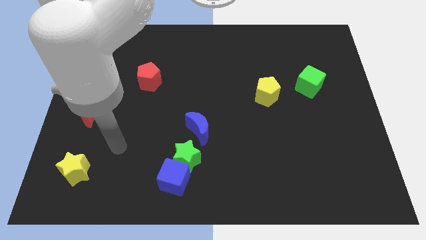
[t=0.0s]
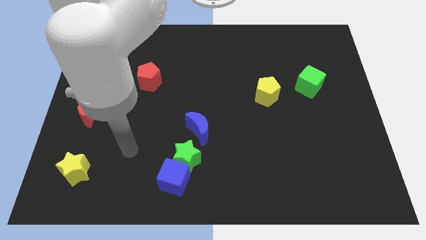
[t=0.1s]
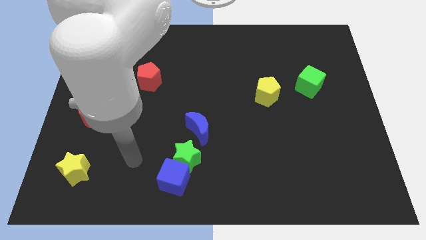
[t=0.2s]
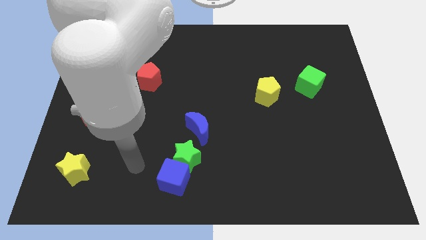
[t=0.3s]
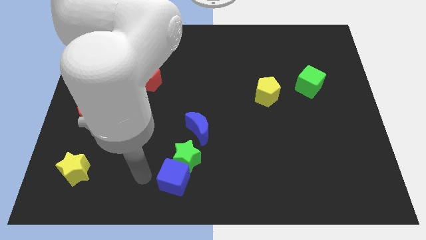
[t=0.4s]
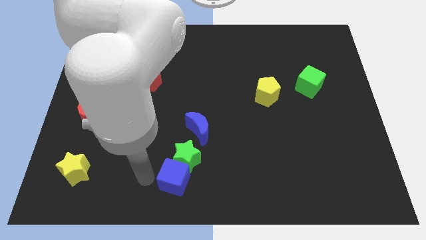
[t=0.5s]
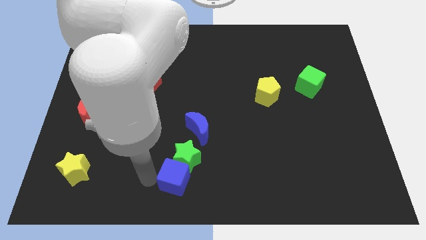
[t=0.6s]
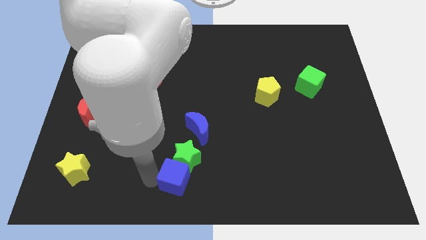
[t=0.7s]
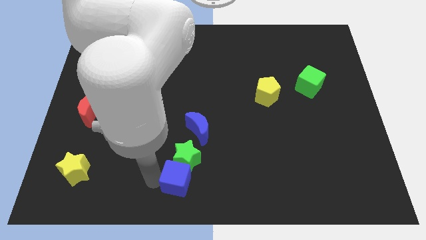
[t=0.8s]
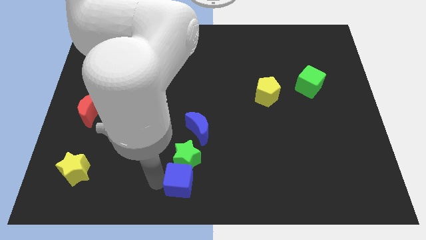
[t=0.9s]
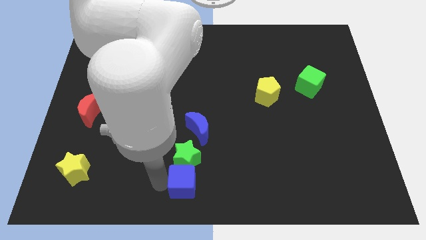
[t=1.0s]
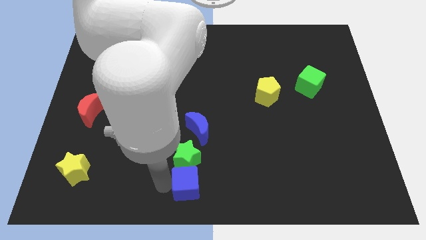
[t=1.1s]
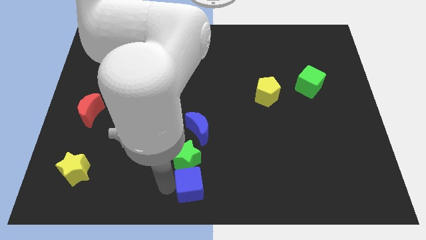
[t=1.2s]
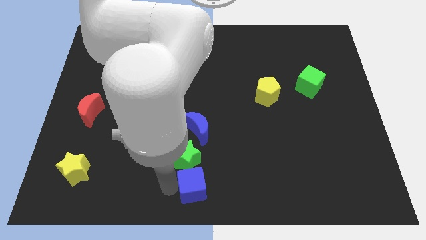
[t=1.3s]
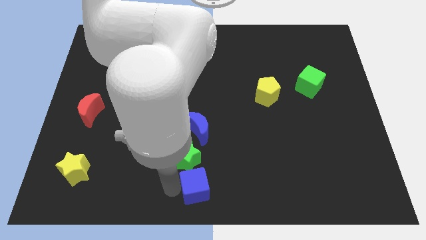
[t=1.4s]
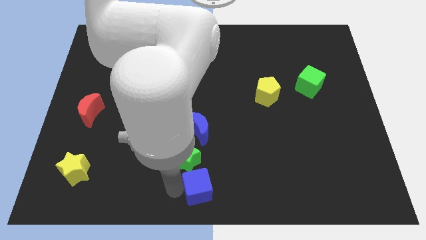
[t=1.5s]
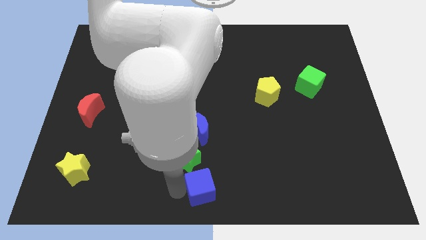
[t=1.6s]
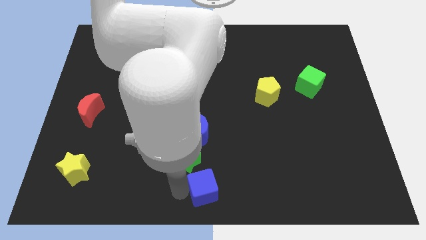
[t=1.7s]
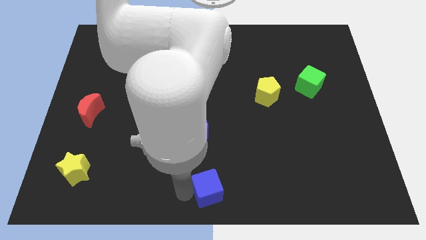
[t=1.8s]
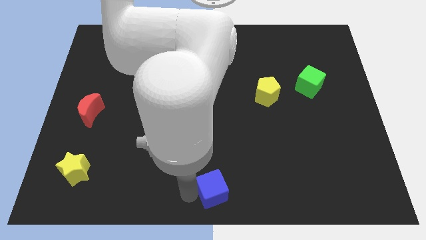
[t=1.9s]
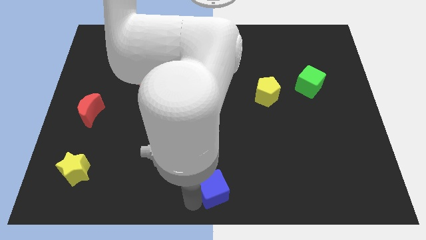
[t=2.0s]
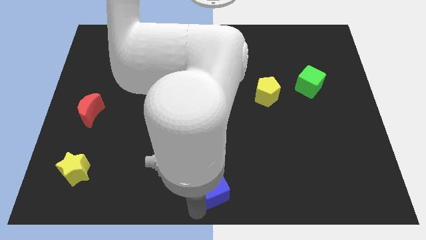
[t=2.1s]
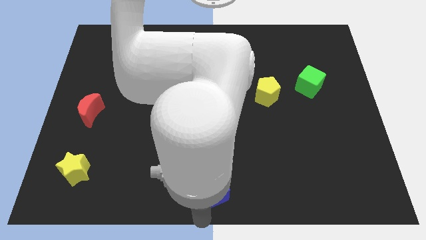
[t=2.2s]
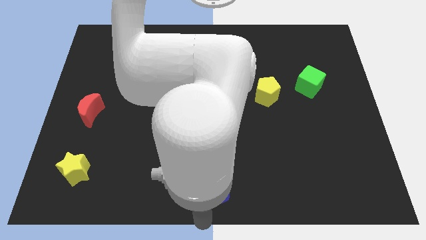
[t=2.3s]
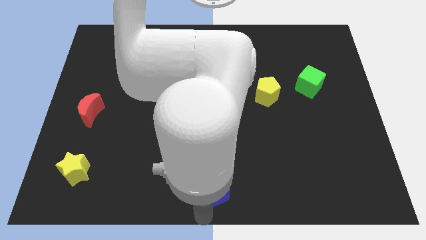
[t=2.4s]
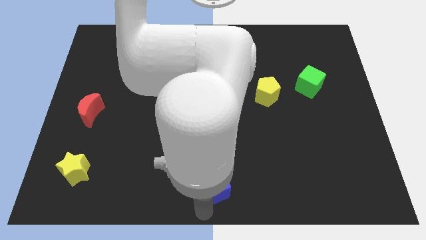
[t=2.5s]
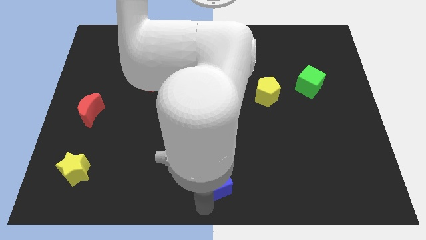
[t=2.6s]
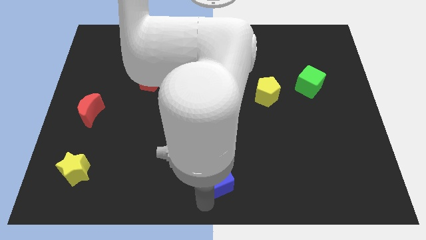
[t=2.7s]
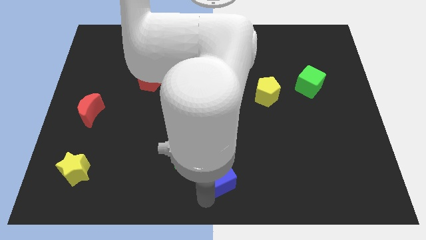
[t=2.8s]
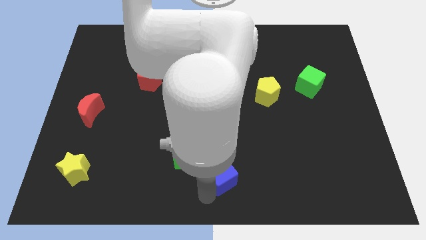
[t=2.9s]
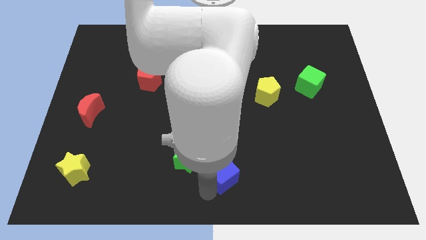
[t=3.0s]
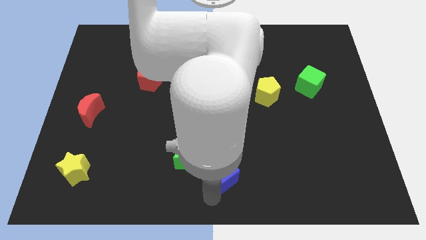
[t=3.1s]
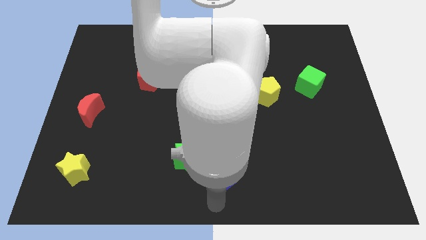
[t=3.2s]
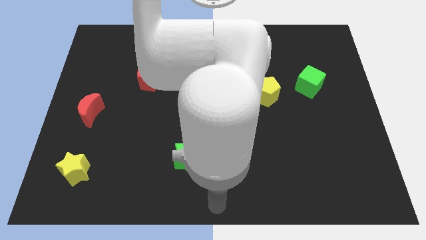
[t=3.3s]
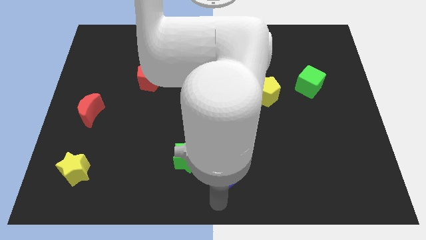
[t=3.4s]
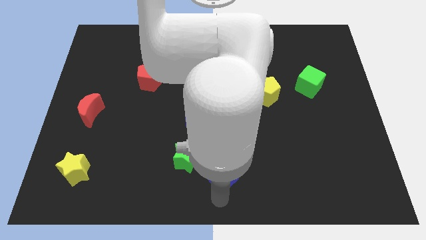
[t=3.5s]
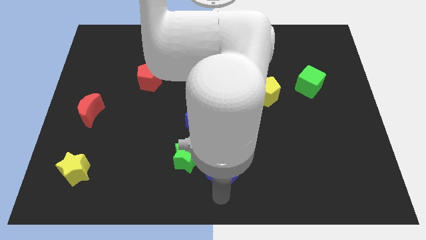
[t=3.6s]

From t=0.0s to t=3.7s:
move the blue cube a little diagonally upwards and right

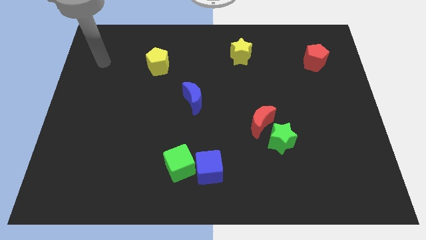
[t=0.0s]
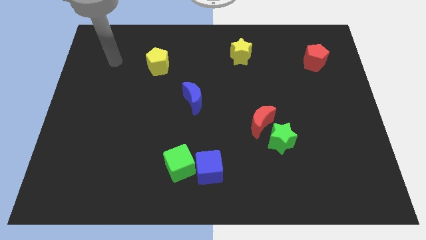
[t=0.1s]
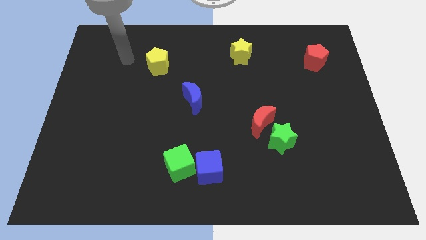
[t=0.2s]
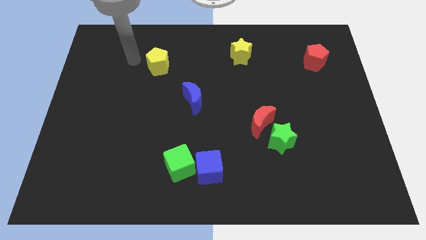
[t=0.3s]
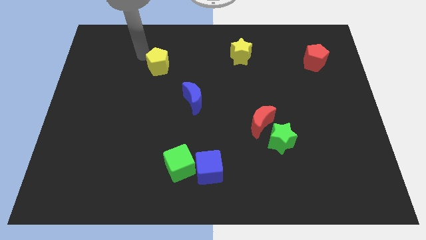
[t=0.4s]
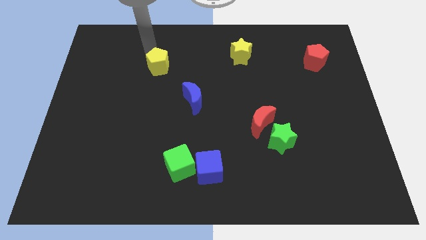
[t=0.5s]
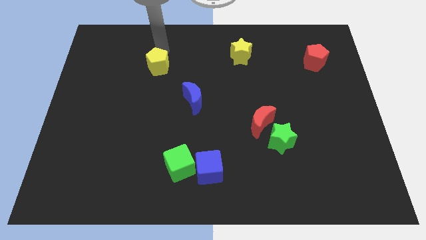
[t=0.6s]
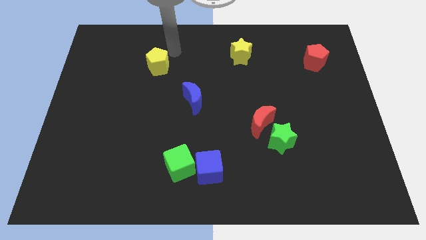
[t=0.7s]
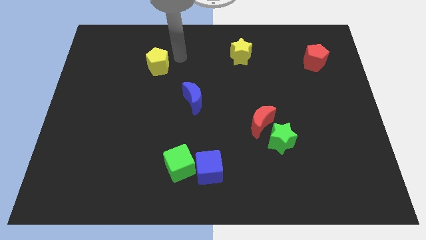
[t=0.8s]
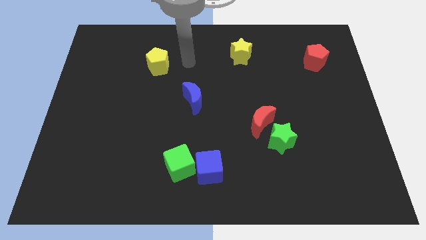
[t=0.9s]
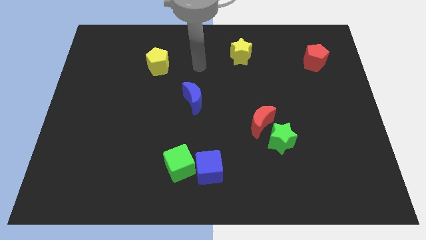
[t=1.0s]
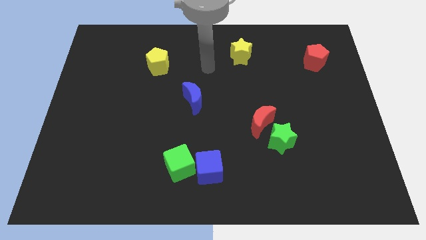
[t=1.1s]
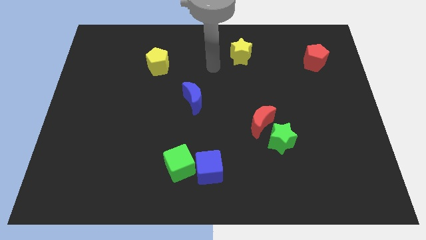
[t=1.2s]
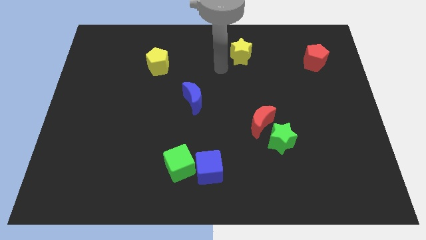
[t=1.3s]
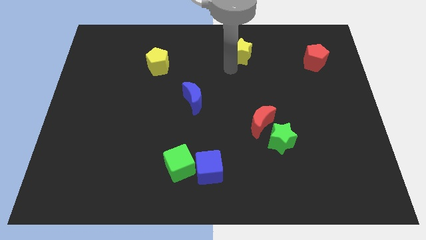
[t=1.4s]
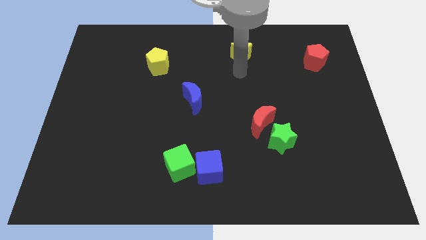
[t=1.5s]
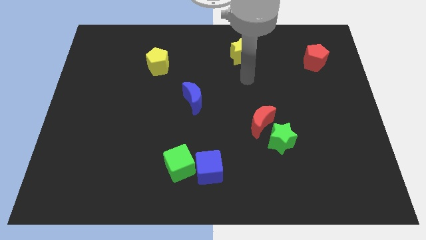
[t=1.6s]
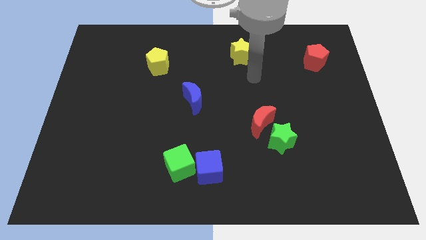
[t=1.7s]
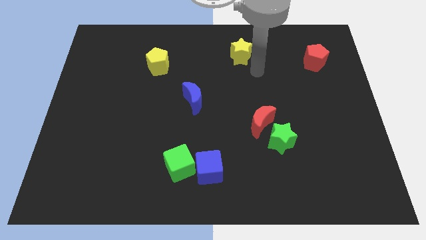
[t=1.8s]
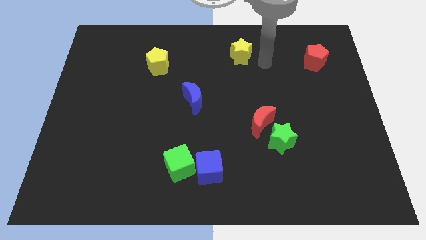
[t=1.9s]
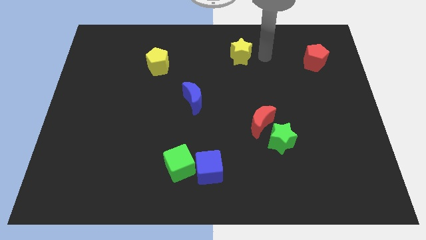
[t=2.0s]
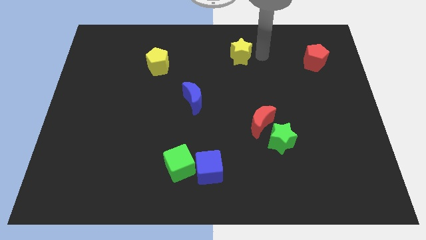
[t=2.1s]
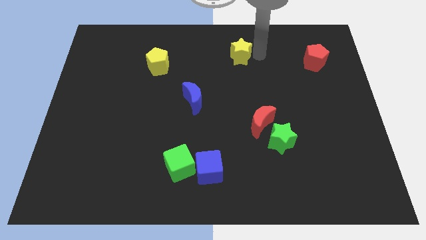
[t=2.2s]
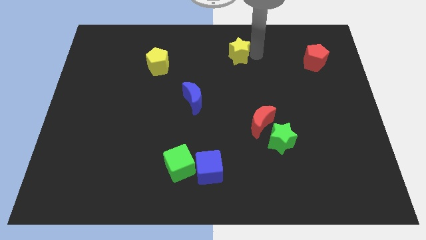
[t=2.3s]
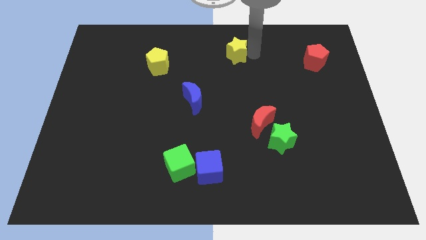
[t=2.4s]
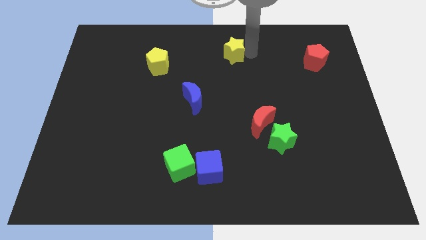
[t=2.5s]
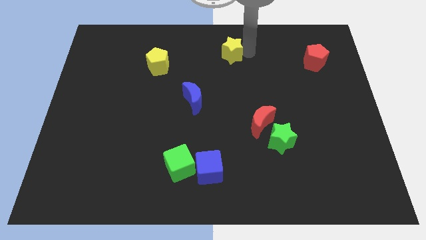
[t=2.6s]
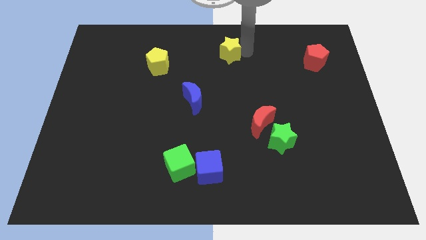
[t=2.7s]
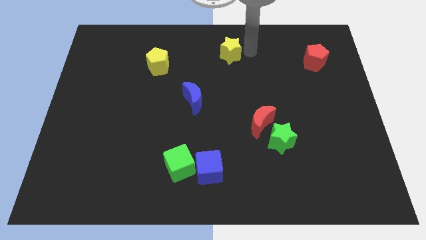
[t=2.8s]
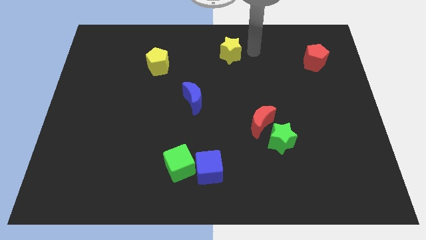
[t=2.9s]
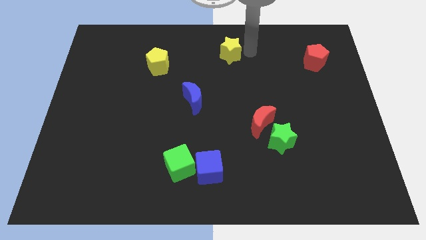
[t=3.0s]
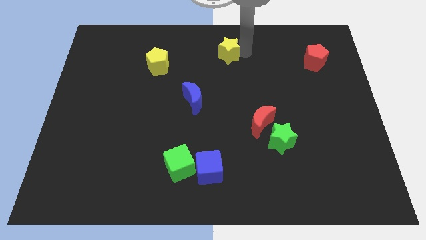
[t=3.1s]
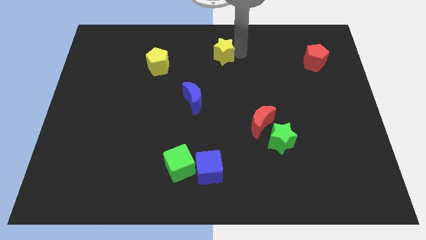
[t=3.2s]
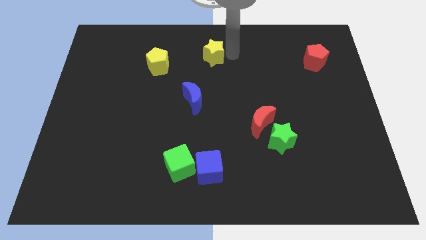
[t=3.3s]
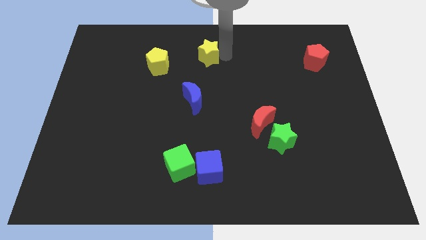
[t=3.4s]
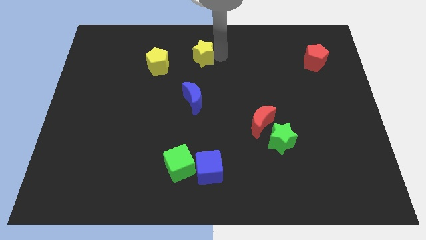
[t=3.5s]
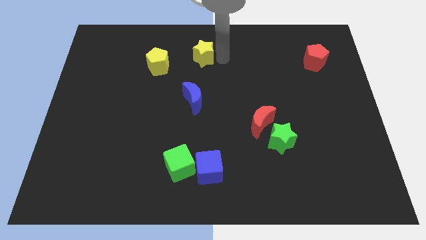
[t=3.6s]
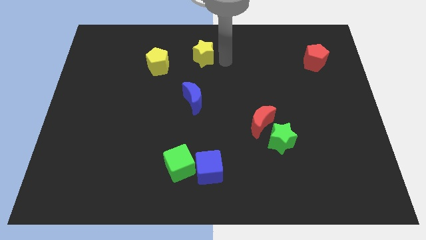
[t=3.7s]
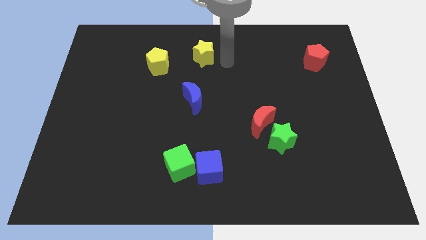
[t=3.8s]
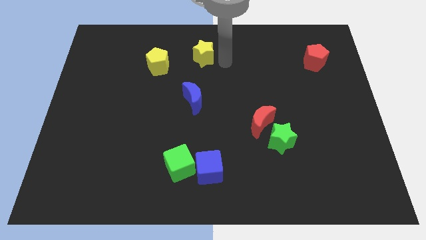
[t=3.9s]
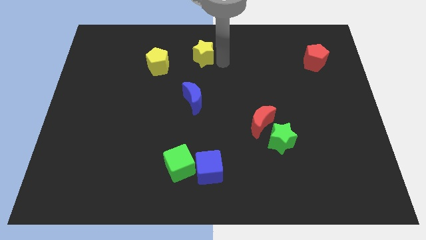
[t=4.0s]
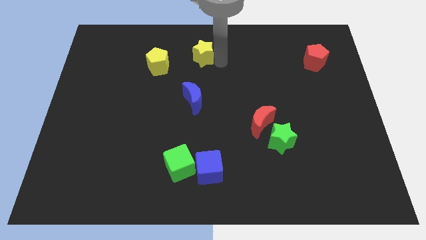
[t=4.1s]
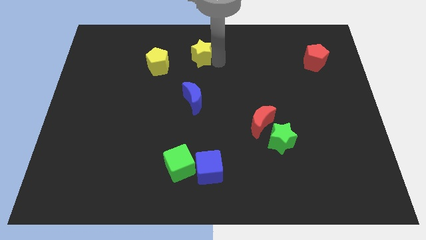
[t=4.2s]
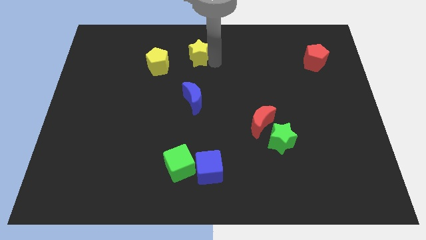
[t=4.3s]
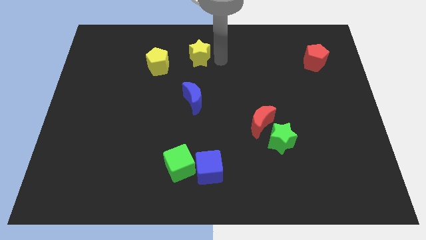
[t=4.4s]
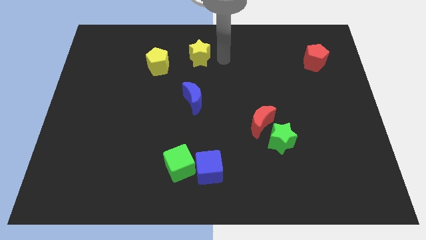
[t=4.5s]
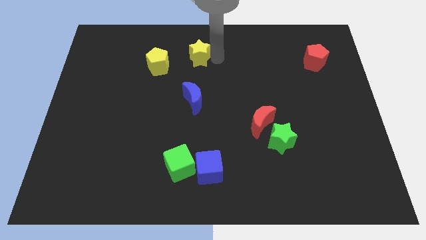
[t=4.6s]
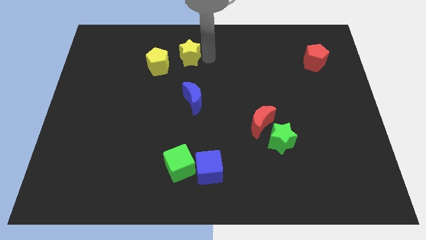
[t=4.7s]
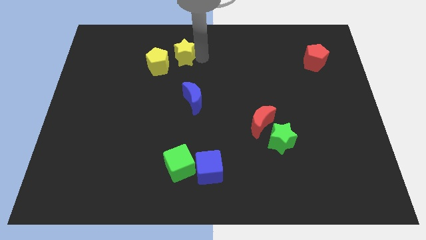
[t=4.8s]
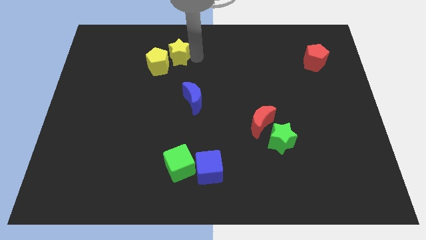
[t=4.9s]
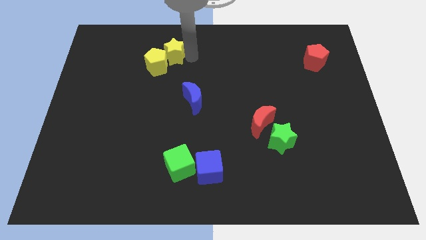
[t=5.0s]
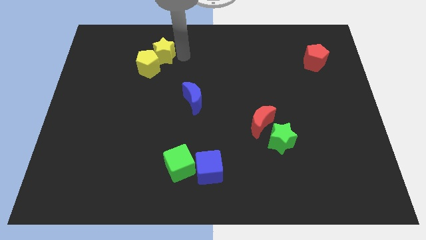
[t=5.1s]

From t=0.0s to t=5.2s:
push the yellow star left
